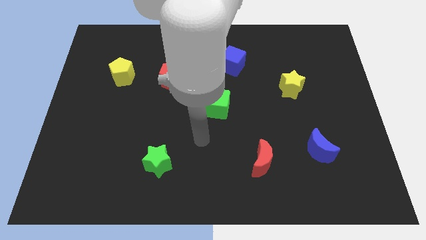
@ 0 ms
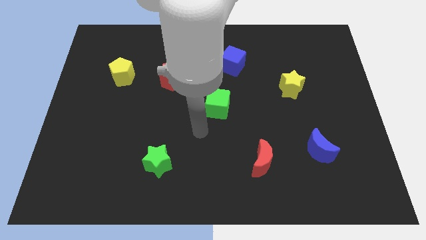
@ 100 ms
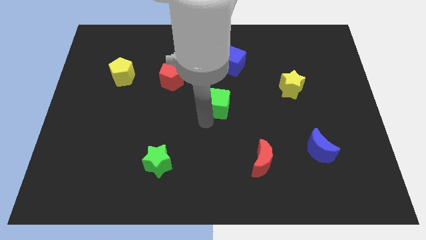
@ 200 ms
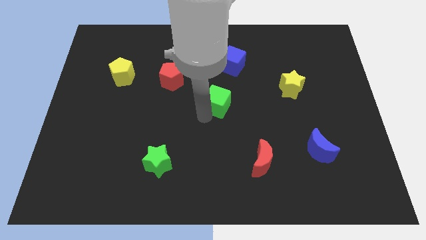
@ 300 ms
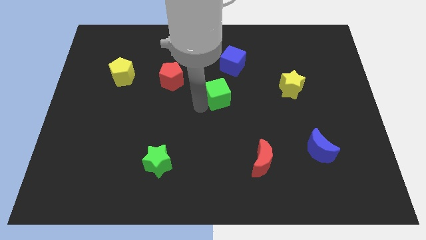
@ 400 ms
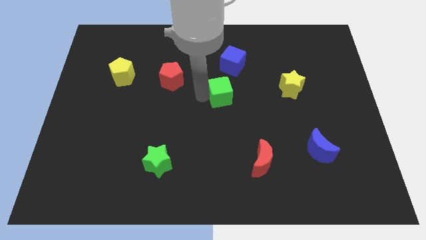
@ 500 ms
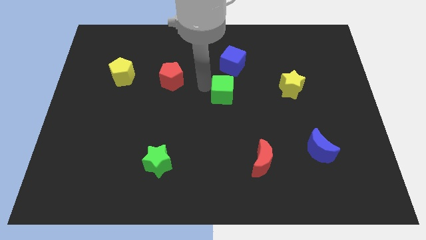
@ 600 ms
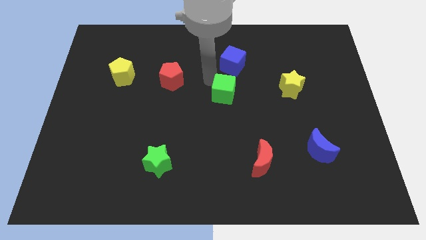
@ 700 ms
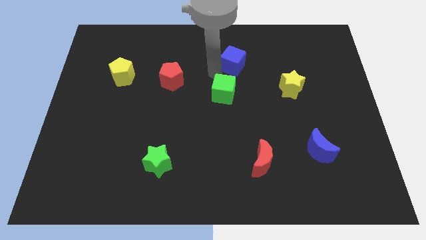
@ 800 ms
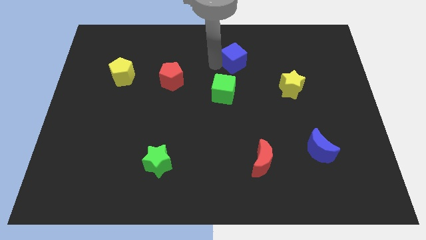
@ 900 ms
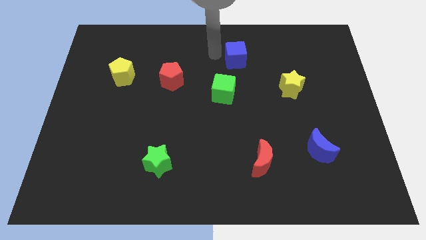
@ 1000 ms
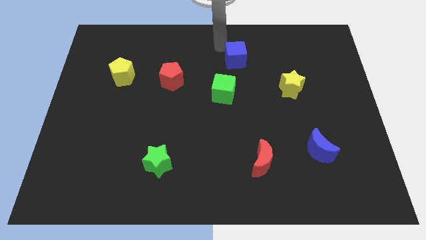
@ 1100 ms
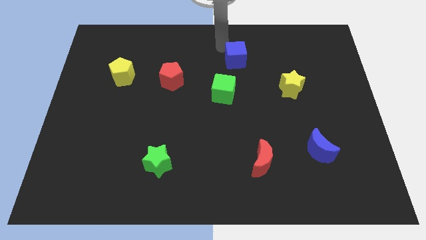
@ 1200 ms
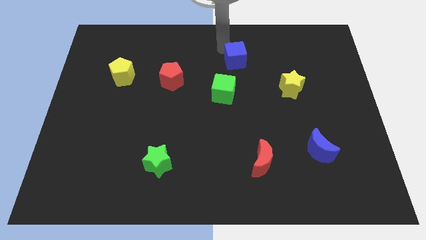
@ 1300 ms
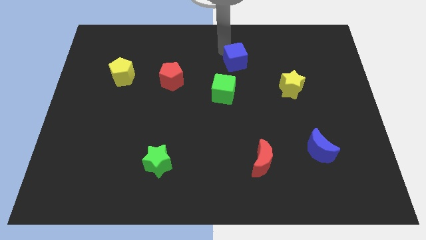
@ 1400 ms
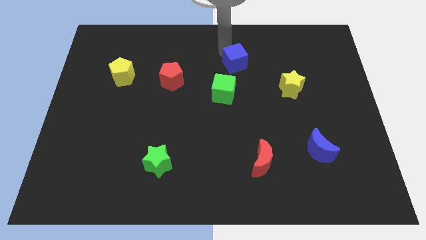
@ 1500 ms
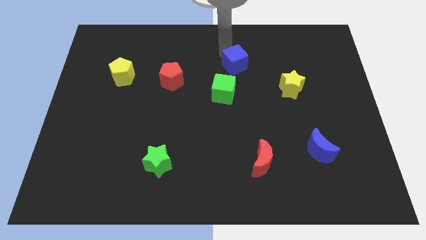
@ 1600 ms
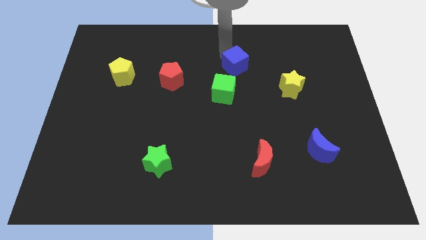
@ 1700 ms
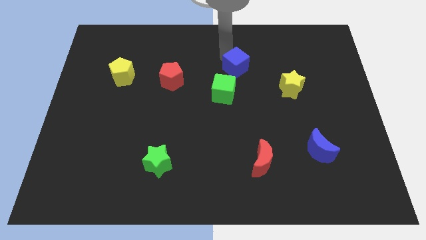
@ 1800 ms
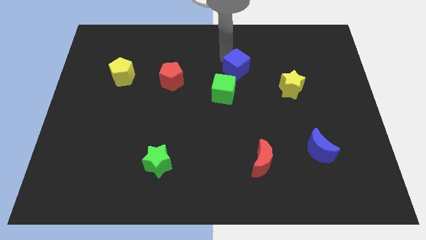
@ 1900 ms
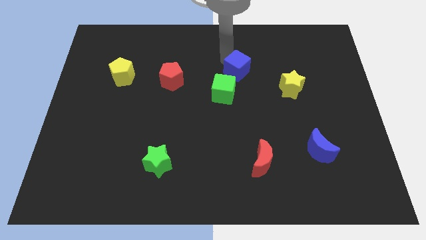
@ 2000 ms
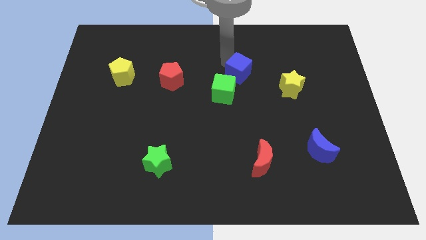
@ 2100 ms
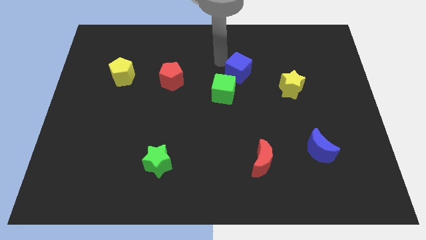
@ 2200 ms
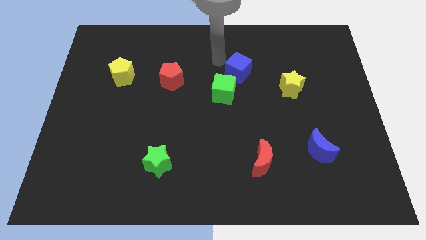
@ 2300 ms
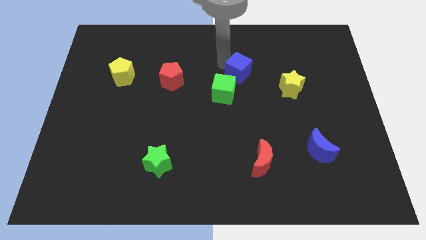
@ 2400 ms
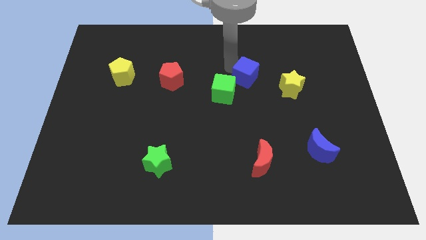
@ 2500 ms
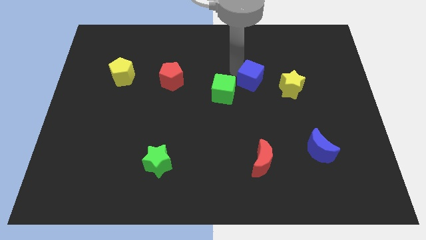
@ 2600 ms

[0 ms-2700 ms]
slide the blue cube diagonally downwards and right a bit

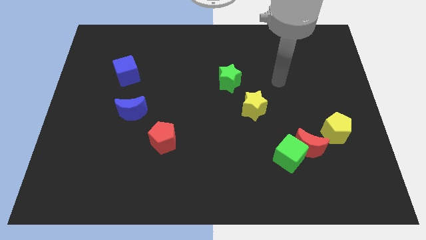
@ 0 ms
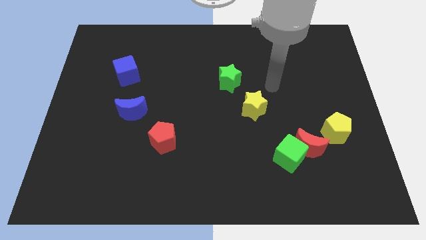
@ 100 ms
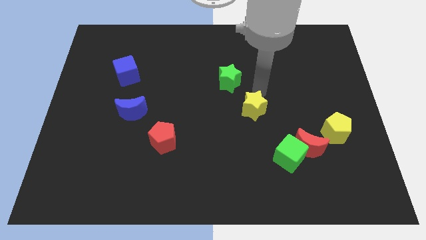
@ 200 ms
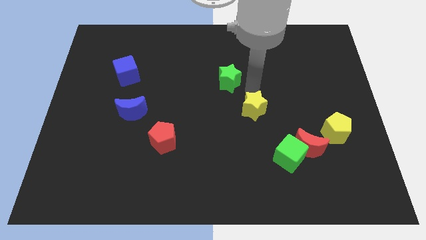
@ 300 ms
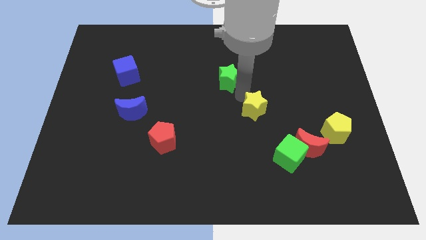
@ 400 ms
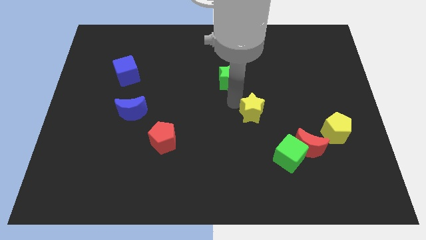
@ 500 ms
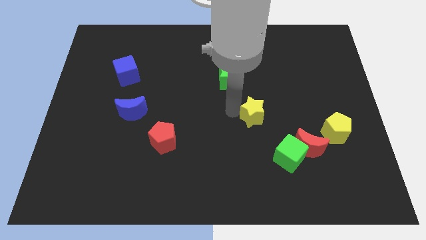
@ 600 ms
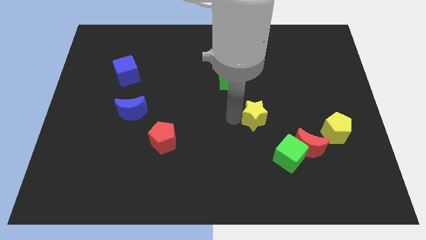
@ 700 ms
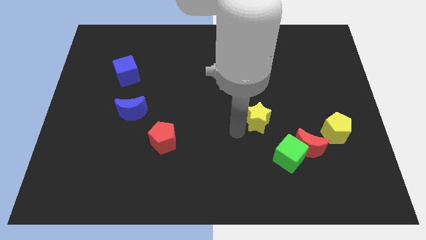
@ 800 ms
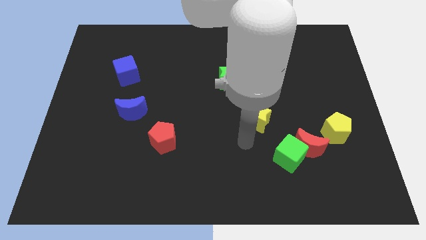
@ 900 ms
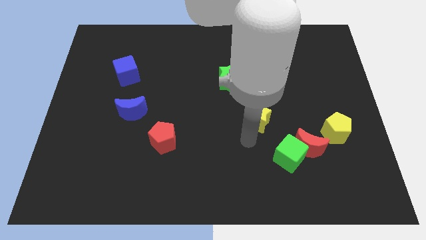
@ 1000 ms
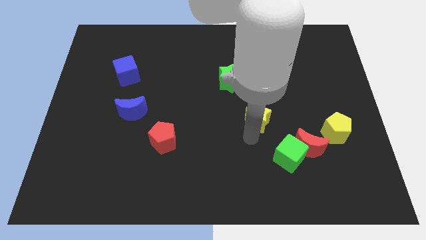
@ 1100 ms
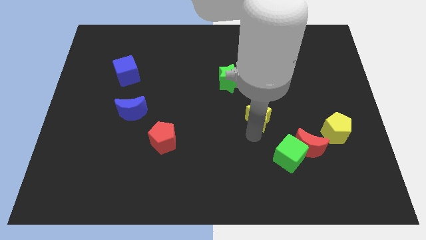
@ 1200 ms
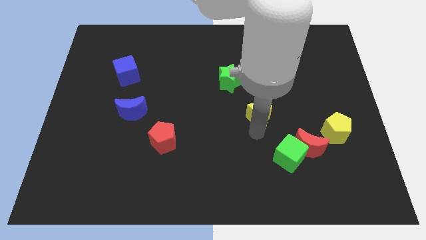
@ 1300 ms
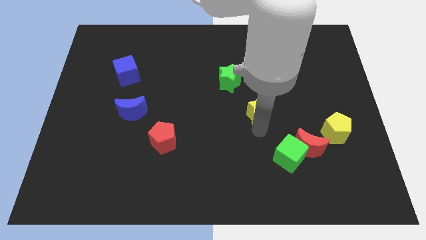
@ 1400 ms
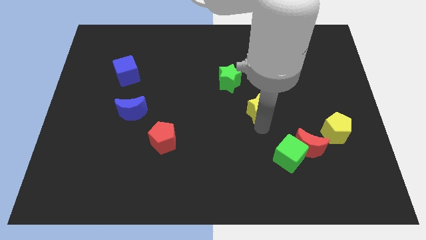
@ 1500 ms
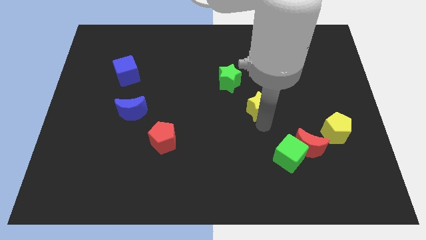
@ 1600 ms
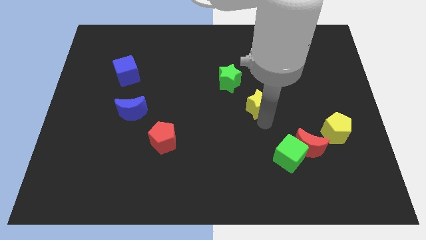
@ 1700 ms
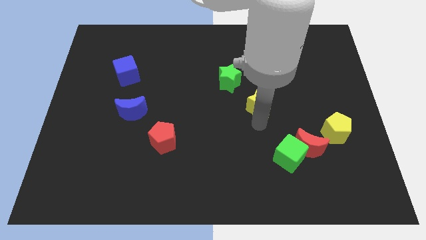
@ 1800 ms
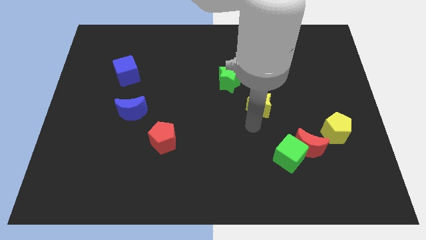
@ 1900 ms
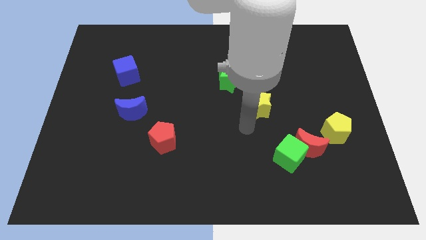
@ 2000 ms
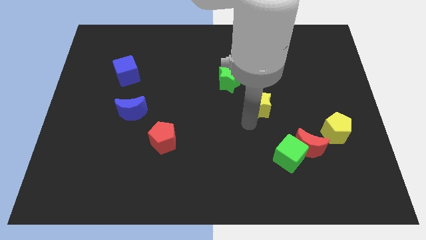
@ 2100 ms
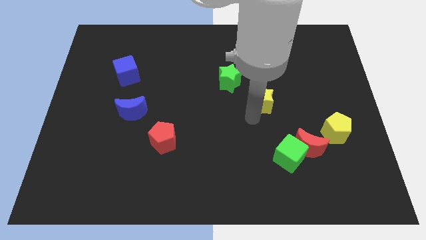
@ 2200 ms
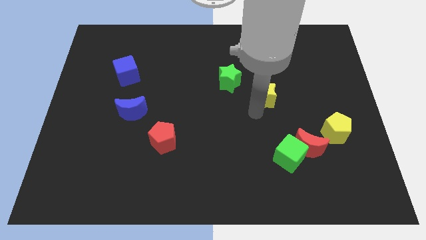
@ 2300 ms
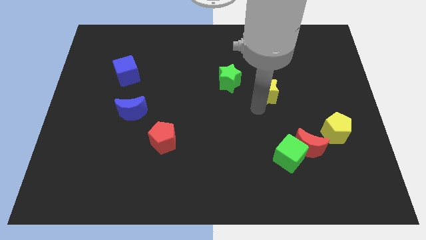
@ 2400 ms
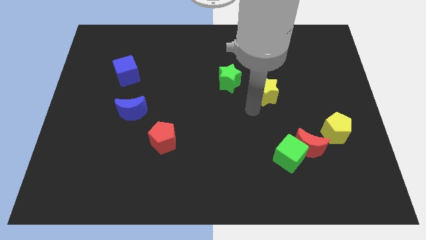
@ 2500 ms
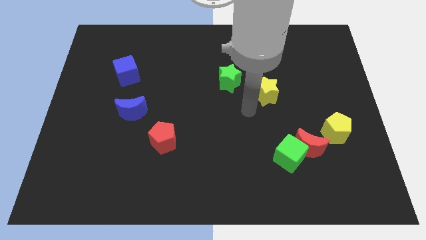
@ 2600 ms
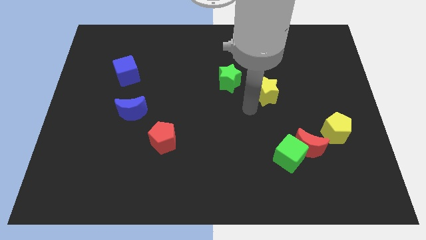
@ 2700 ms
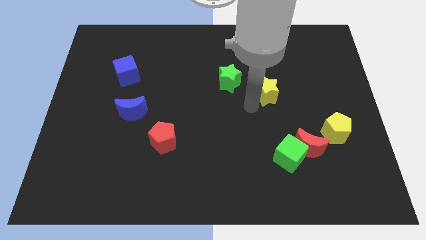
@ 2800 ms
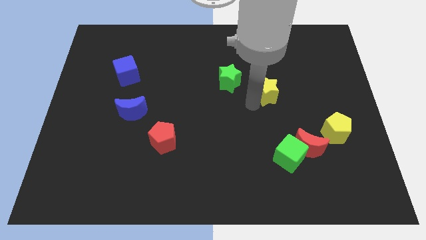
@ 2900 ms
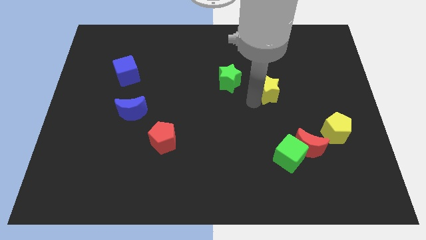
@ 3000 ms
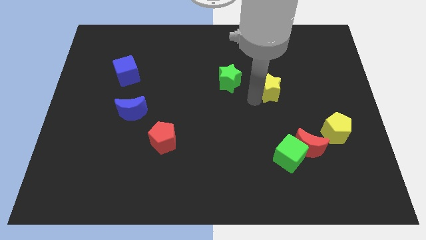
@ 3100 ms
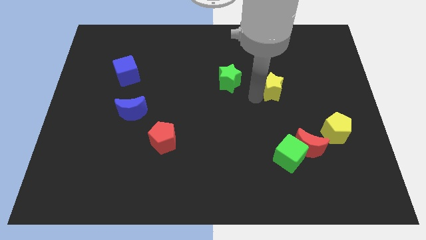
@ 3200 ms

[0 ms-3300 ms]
slightly move the yellow star up and then to the right

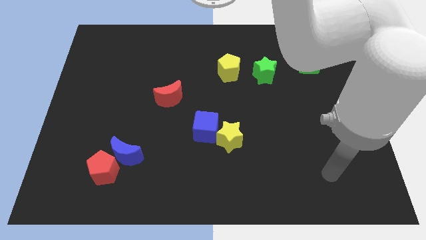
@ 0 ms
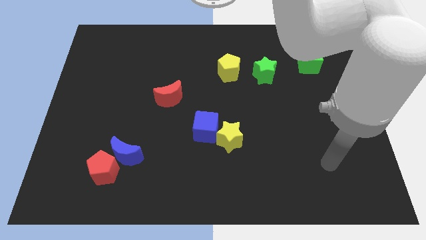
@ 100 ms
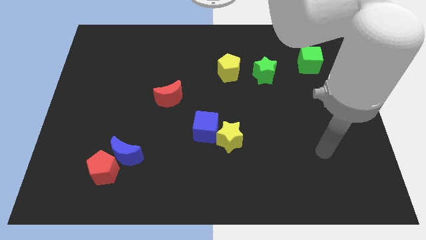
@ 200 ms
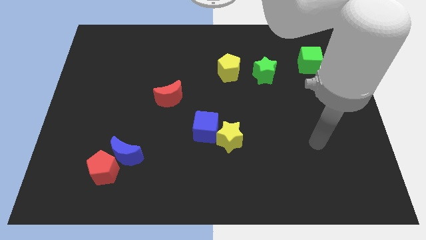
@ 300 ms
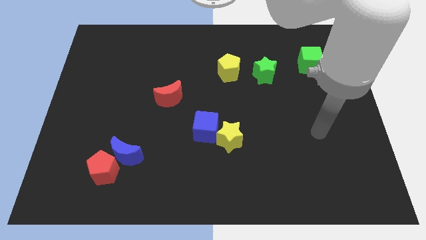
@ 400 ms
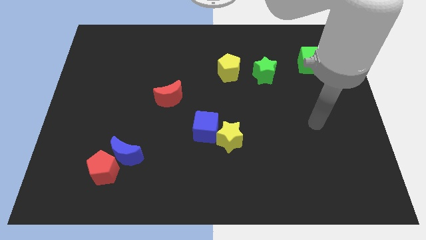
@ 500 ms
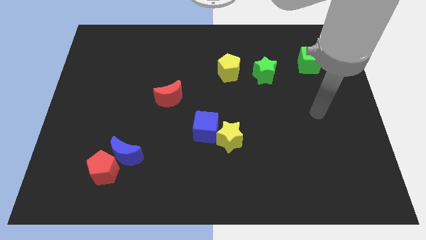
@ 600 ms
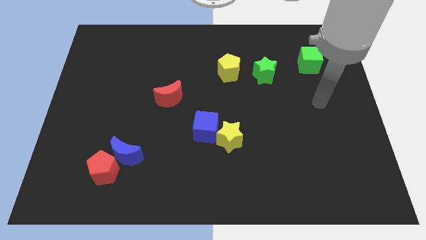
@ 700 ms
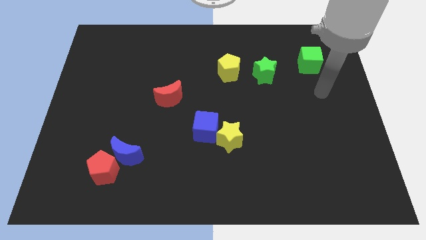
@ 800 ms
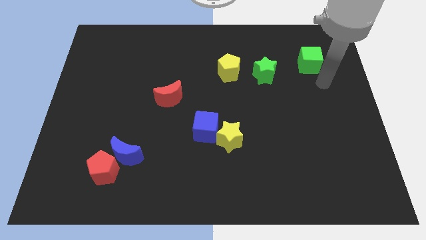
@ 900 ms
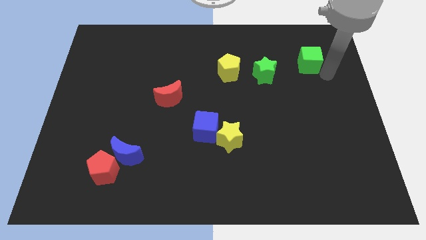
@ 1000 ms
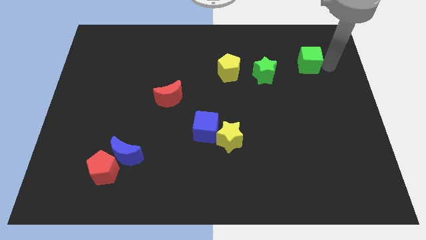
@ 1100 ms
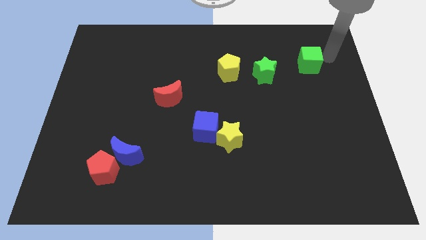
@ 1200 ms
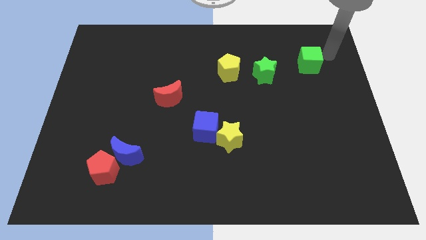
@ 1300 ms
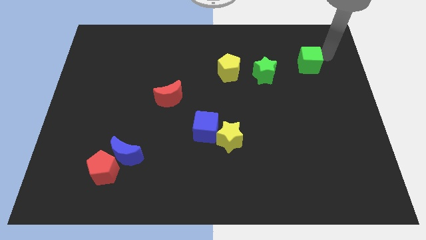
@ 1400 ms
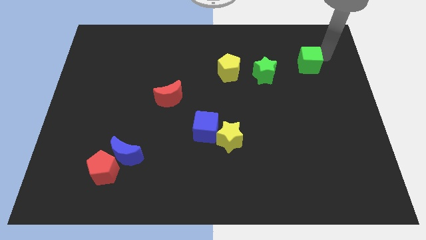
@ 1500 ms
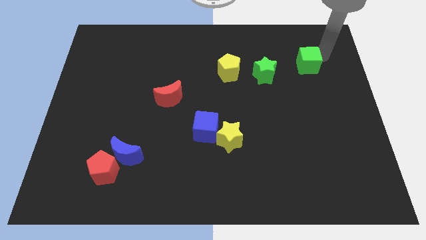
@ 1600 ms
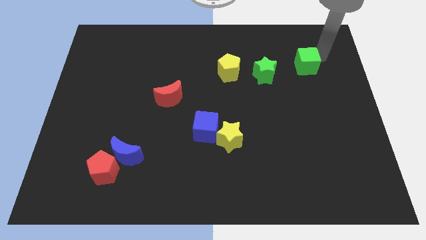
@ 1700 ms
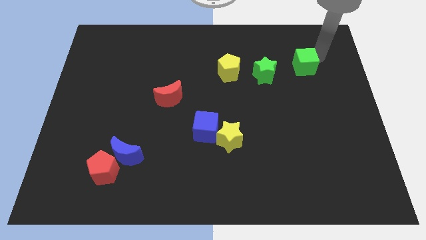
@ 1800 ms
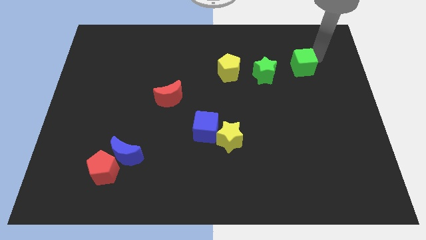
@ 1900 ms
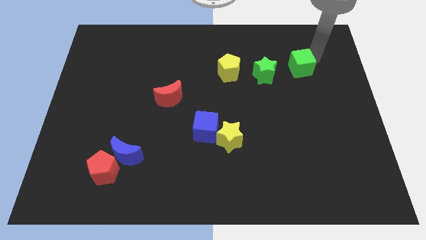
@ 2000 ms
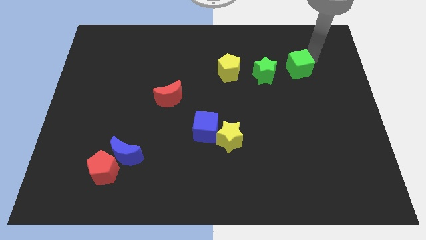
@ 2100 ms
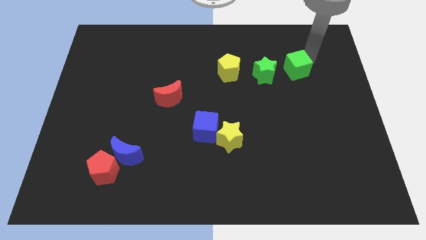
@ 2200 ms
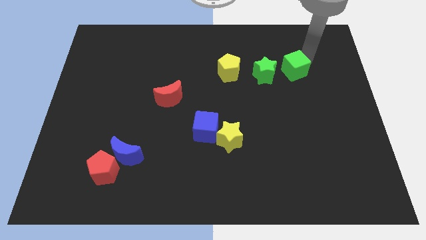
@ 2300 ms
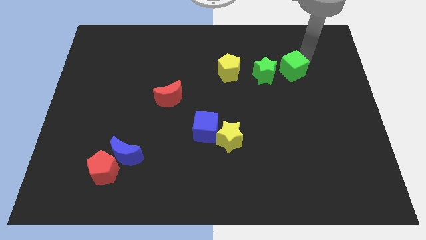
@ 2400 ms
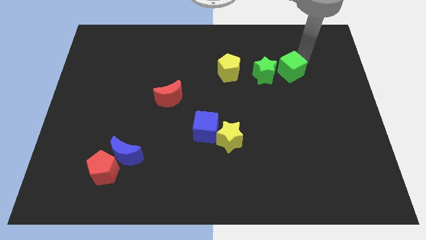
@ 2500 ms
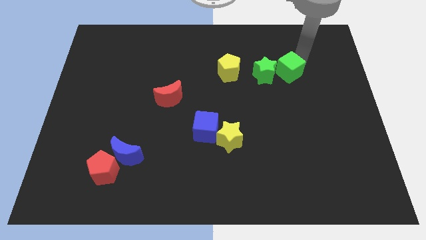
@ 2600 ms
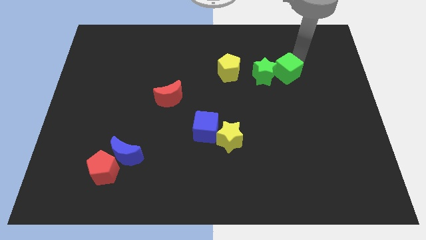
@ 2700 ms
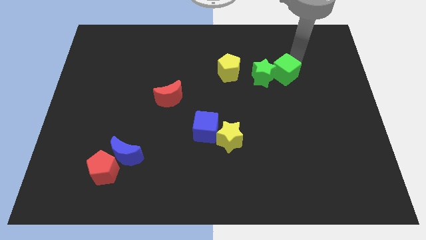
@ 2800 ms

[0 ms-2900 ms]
slightly move the green cube down and to the left diagonally
